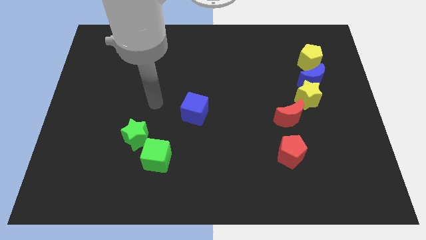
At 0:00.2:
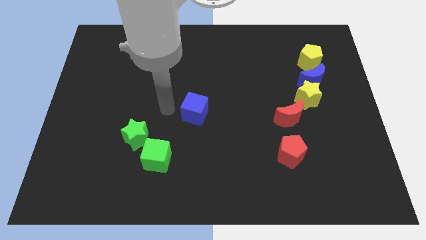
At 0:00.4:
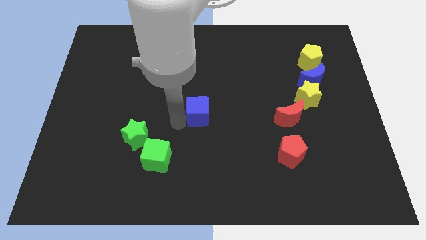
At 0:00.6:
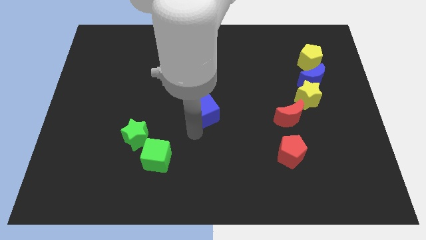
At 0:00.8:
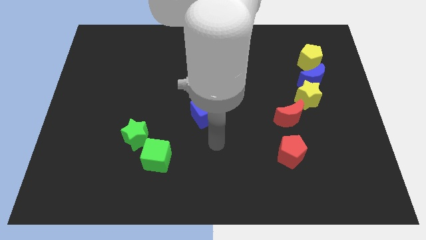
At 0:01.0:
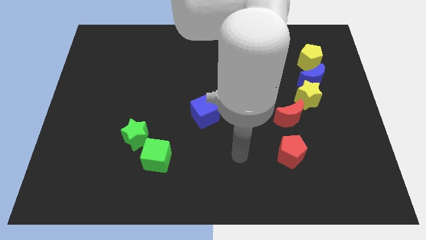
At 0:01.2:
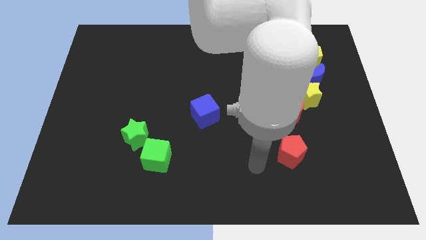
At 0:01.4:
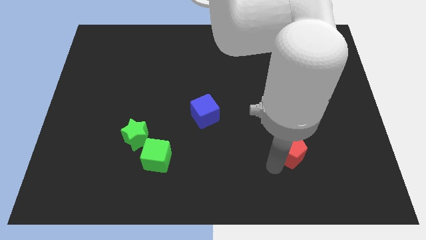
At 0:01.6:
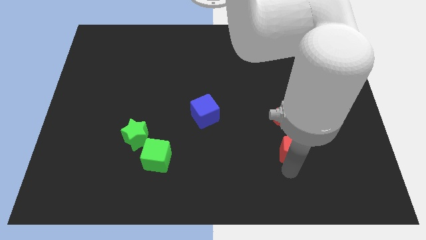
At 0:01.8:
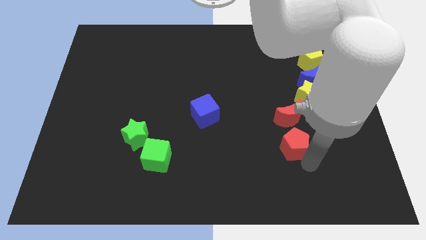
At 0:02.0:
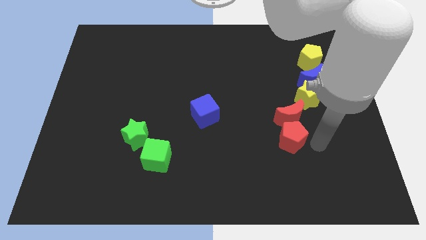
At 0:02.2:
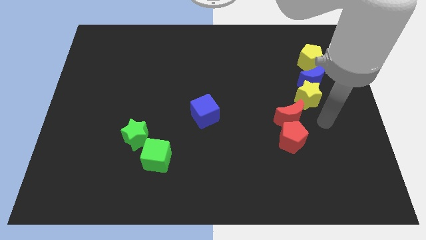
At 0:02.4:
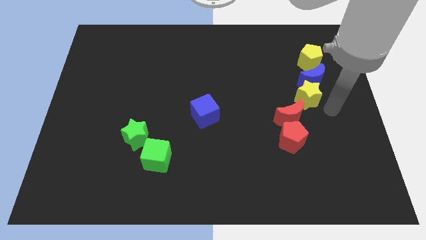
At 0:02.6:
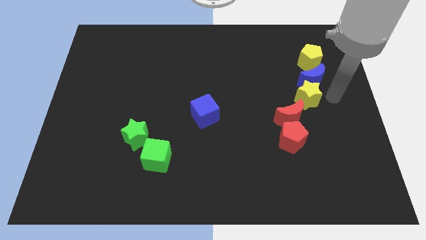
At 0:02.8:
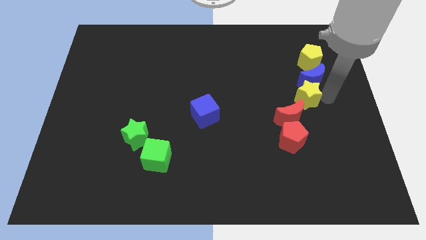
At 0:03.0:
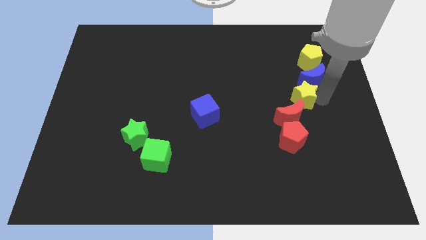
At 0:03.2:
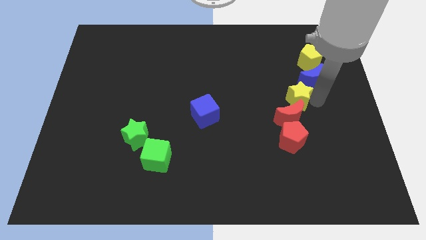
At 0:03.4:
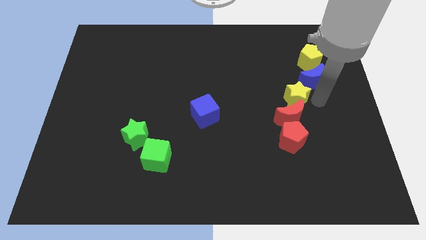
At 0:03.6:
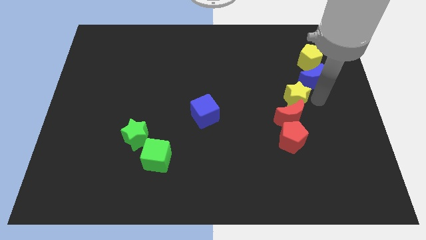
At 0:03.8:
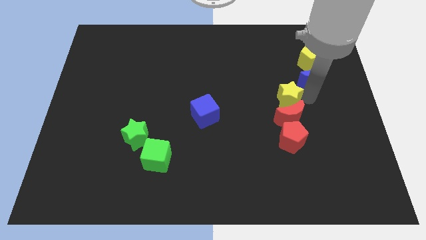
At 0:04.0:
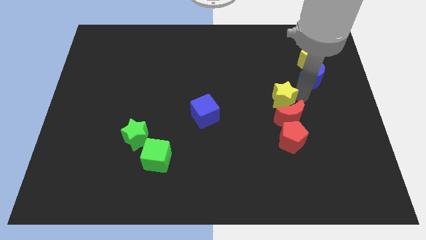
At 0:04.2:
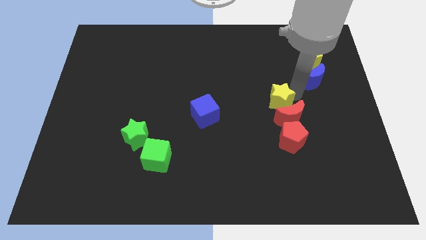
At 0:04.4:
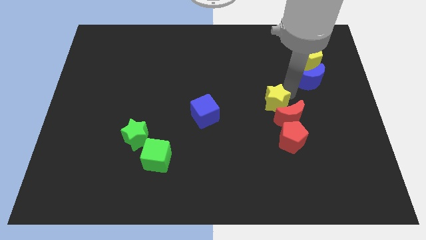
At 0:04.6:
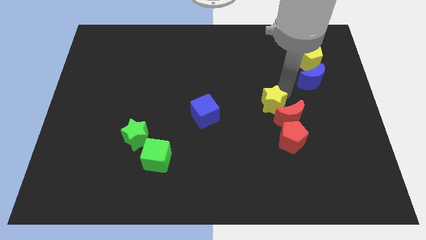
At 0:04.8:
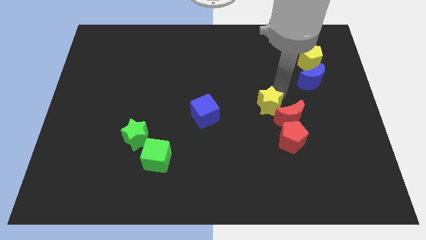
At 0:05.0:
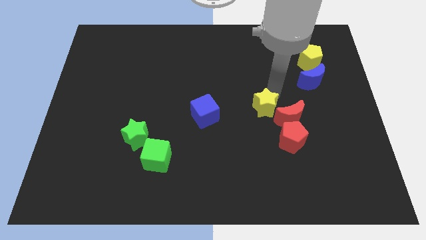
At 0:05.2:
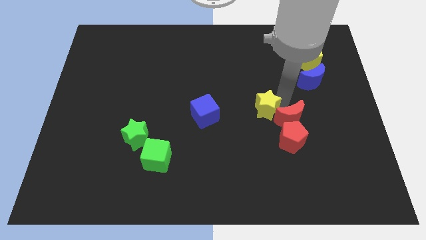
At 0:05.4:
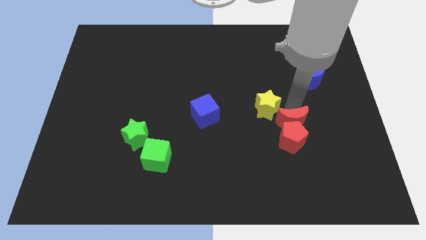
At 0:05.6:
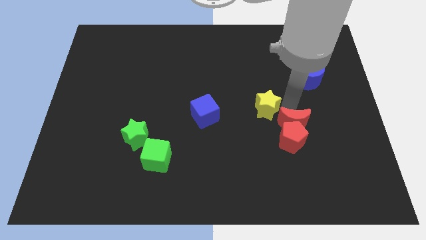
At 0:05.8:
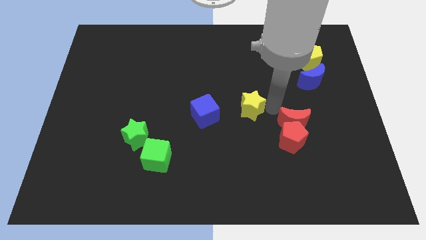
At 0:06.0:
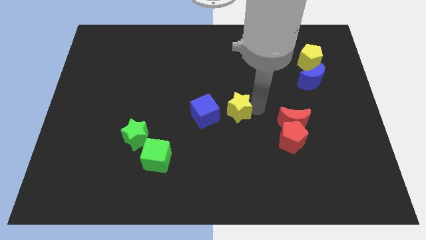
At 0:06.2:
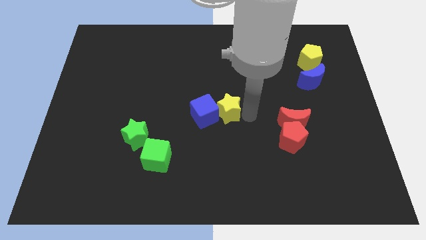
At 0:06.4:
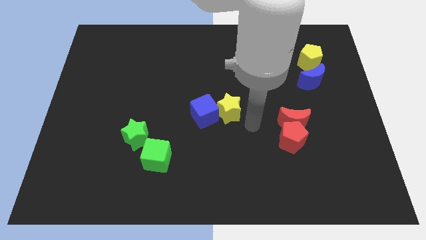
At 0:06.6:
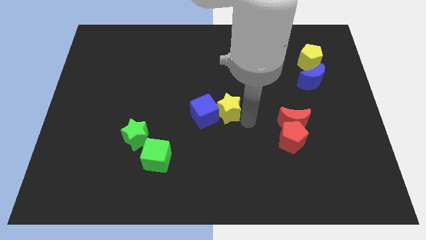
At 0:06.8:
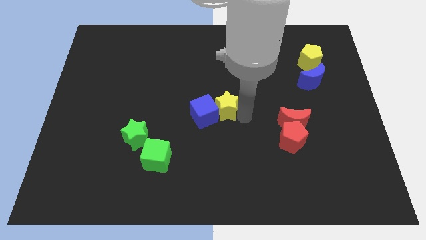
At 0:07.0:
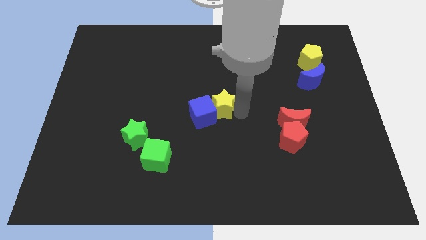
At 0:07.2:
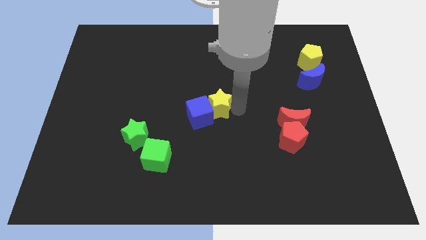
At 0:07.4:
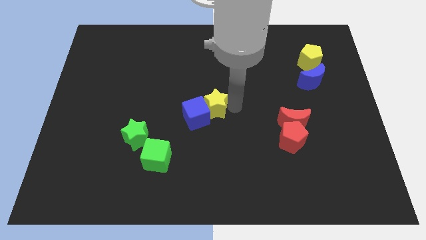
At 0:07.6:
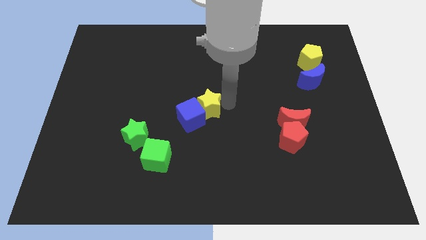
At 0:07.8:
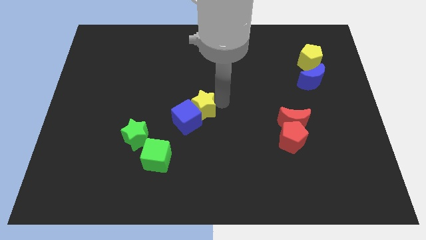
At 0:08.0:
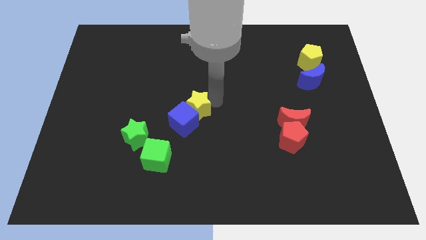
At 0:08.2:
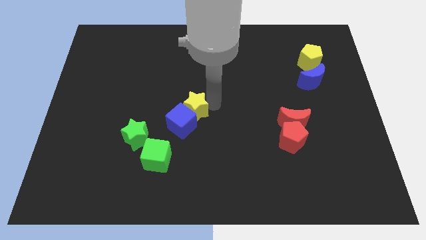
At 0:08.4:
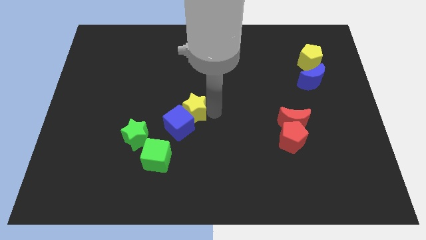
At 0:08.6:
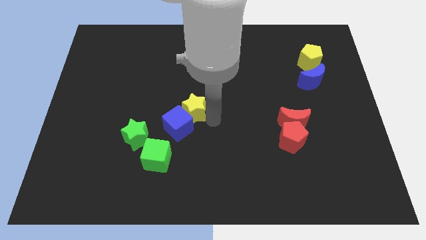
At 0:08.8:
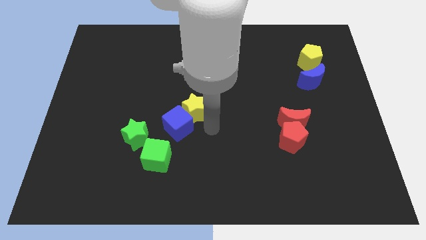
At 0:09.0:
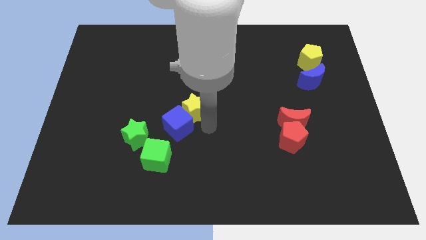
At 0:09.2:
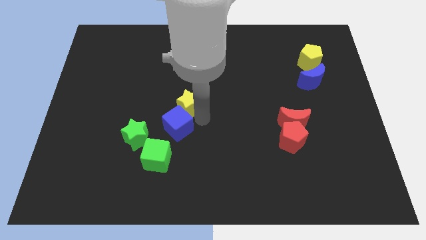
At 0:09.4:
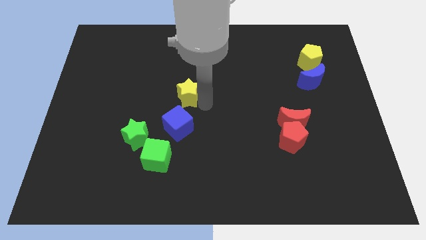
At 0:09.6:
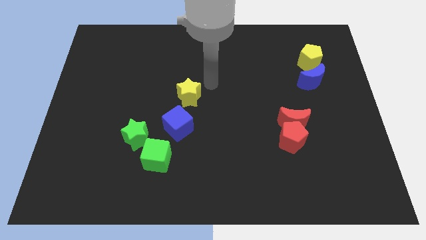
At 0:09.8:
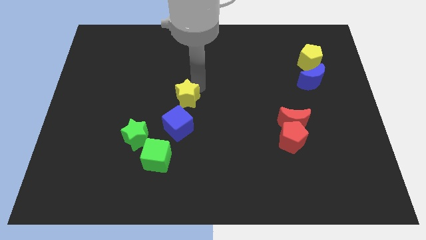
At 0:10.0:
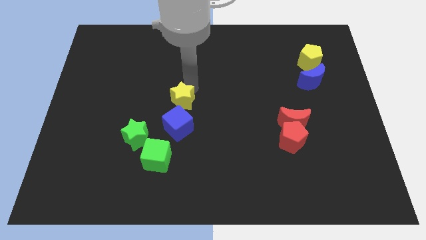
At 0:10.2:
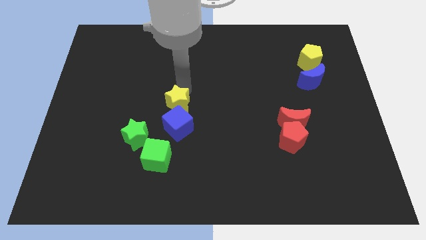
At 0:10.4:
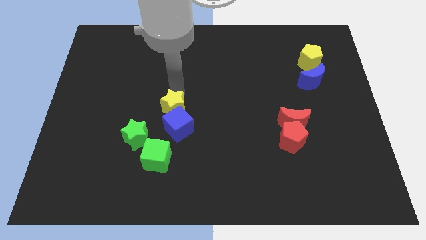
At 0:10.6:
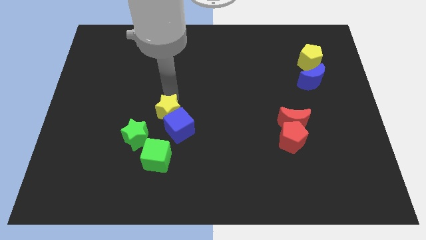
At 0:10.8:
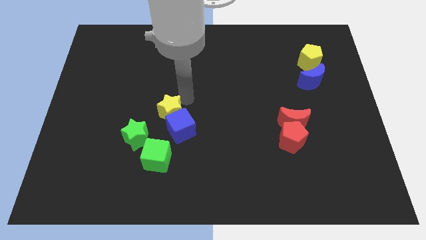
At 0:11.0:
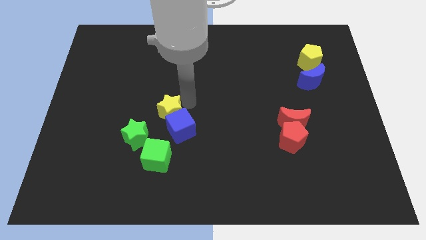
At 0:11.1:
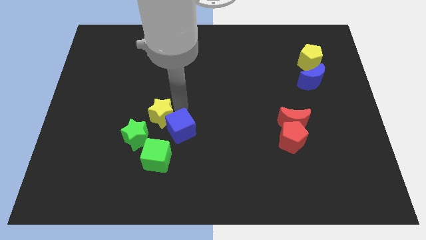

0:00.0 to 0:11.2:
slide the yellow star to the left of the blue cube

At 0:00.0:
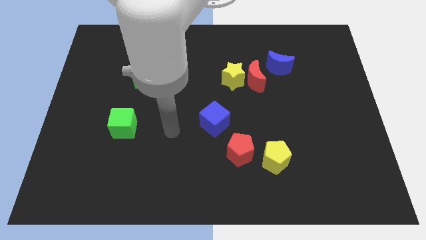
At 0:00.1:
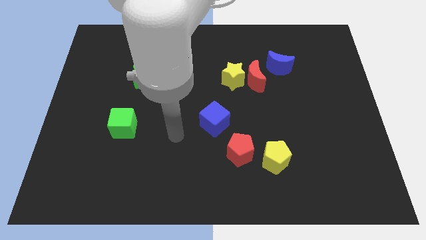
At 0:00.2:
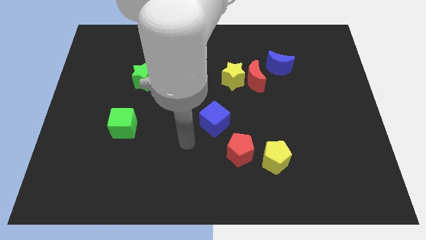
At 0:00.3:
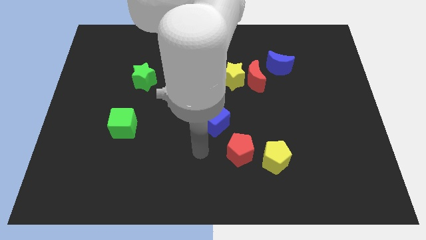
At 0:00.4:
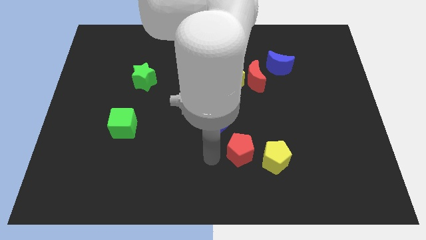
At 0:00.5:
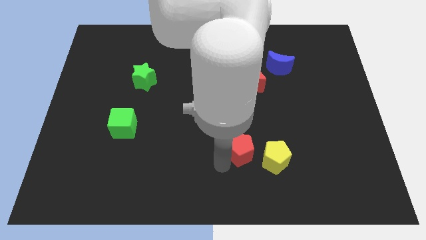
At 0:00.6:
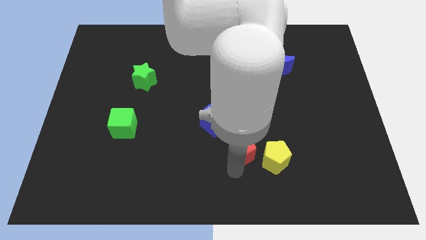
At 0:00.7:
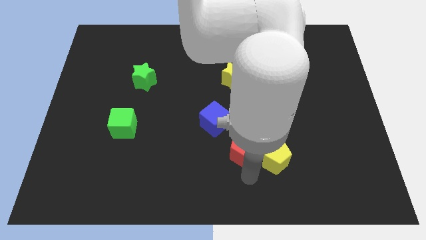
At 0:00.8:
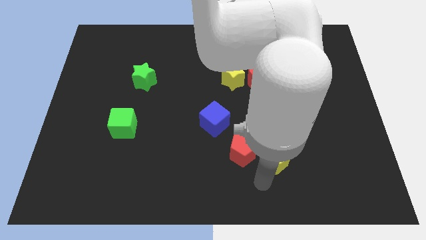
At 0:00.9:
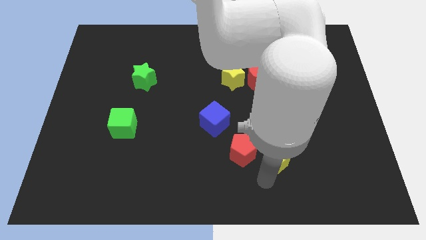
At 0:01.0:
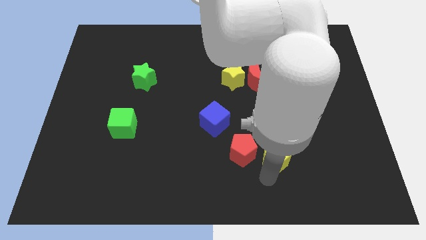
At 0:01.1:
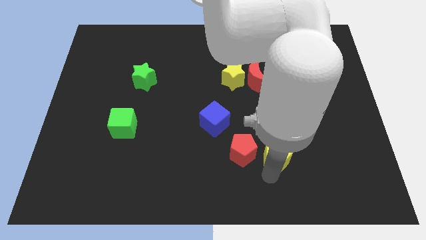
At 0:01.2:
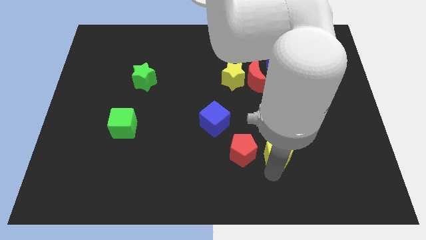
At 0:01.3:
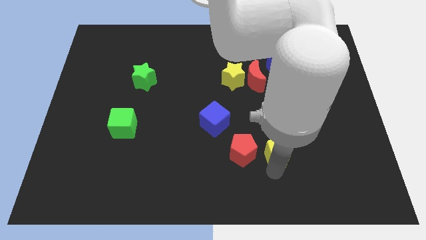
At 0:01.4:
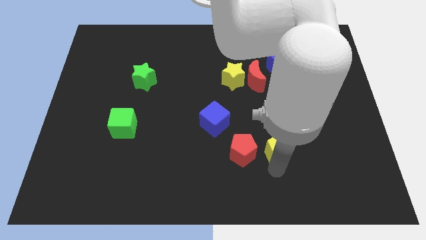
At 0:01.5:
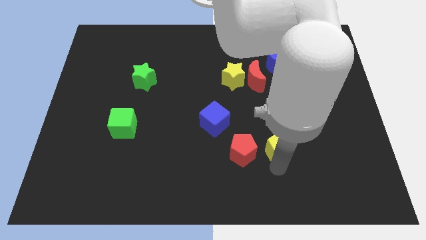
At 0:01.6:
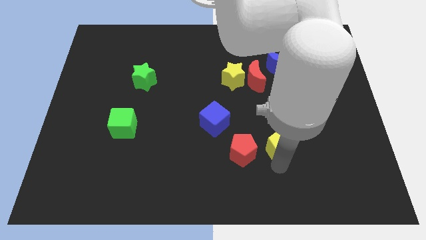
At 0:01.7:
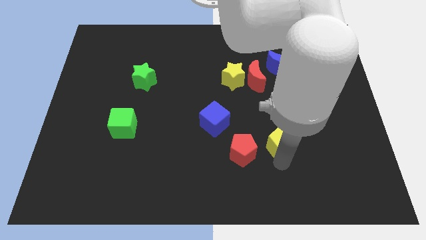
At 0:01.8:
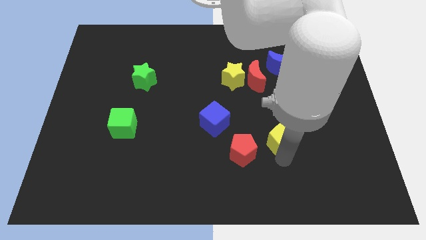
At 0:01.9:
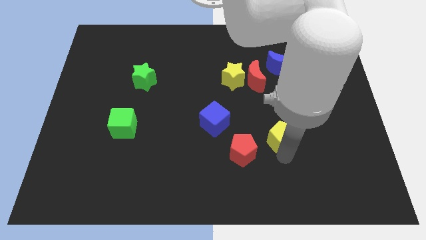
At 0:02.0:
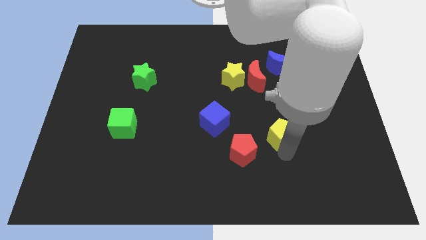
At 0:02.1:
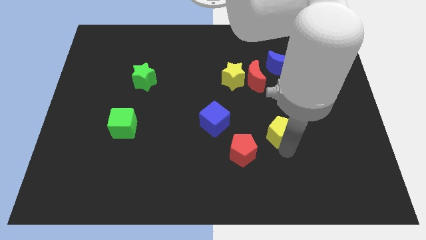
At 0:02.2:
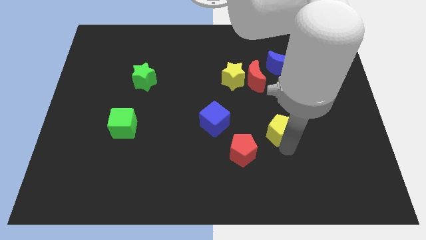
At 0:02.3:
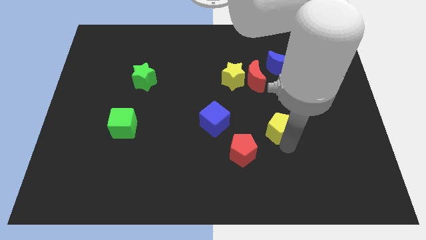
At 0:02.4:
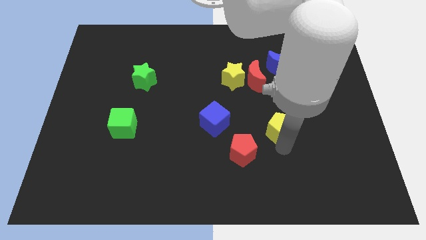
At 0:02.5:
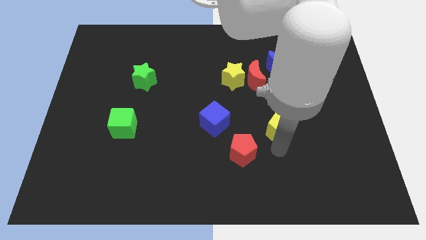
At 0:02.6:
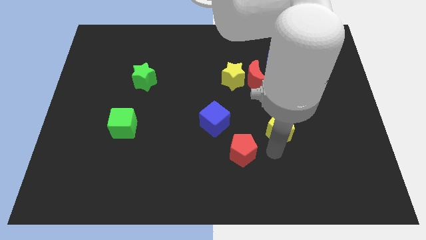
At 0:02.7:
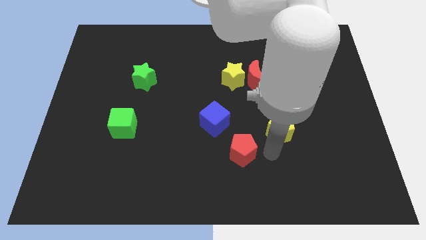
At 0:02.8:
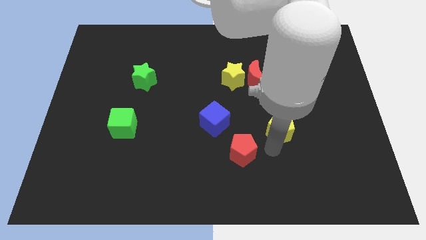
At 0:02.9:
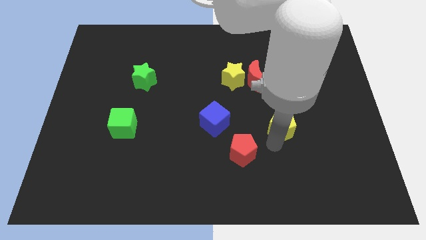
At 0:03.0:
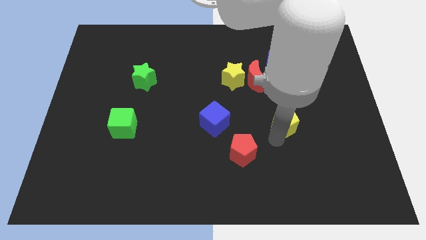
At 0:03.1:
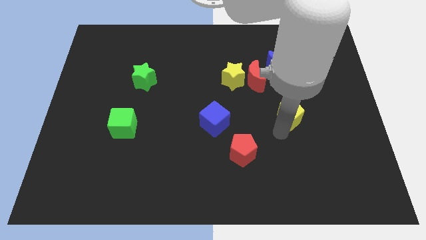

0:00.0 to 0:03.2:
slide the yellow pentagon to the bottom of the blue moon
